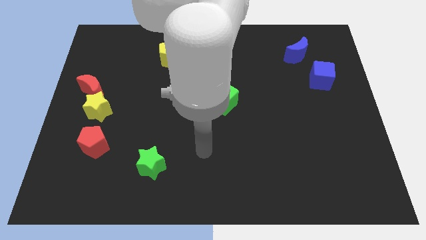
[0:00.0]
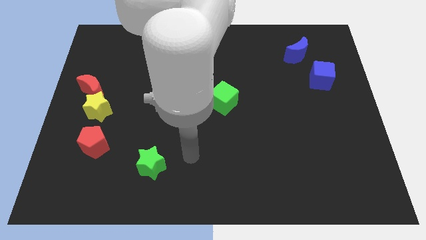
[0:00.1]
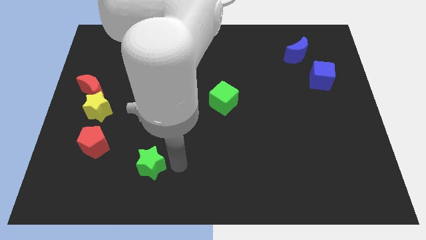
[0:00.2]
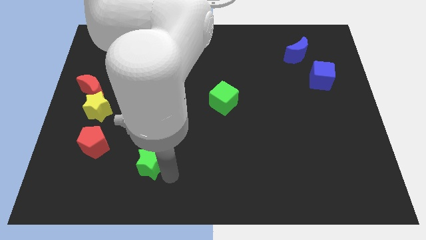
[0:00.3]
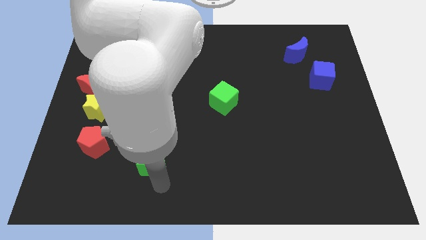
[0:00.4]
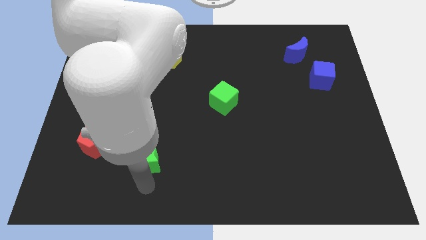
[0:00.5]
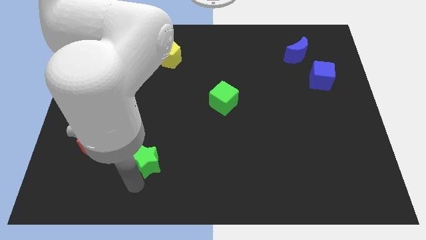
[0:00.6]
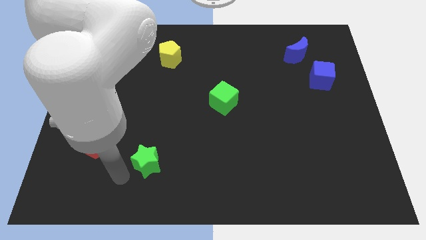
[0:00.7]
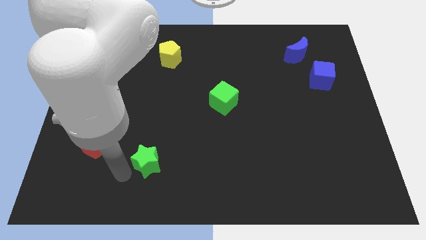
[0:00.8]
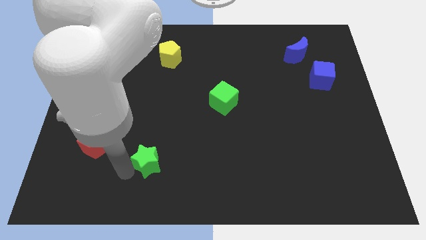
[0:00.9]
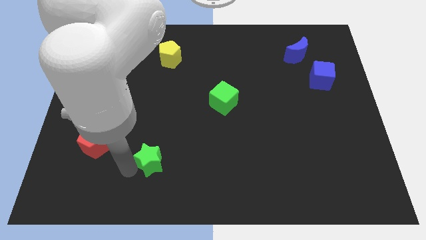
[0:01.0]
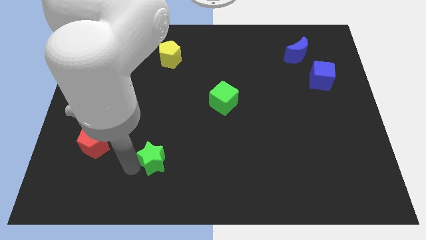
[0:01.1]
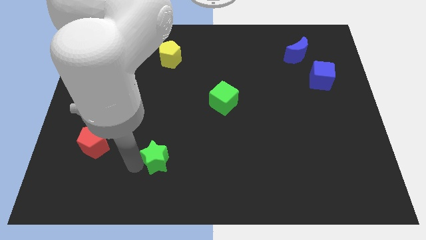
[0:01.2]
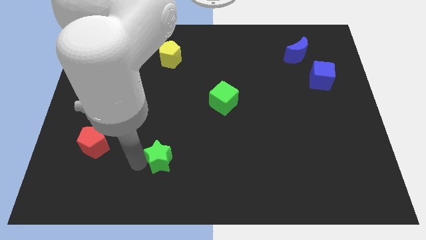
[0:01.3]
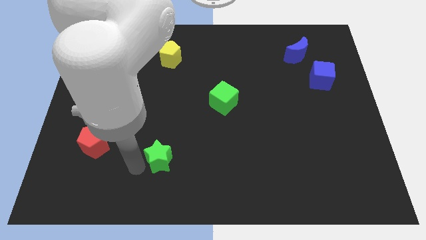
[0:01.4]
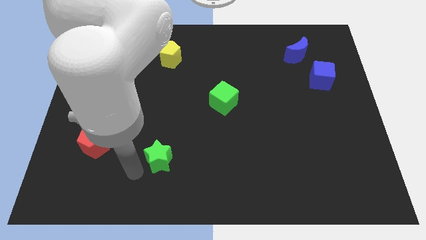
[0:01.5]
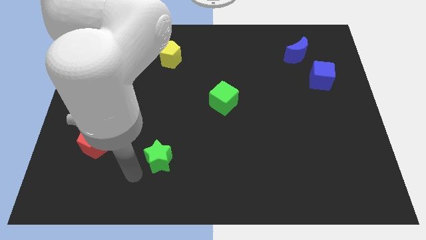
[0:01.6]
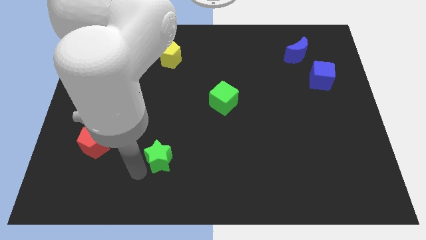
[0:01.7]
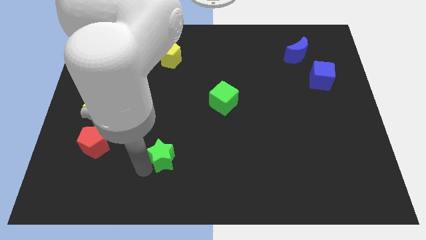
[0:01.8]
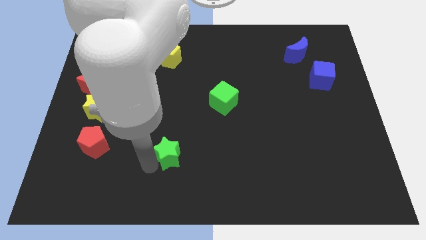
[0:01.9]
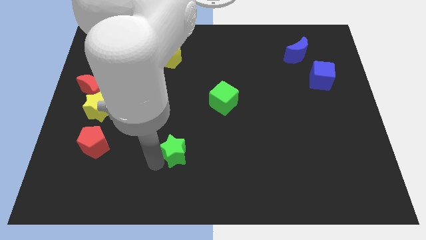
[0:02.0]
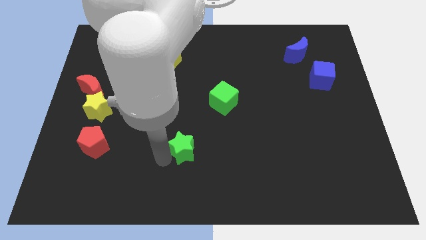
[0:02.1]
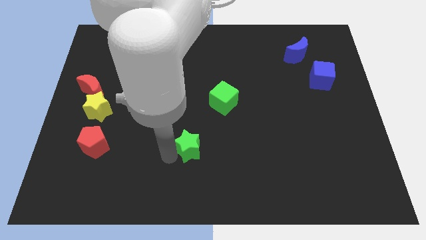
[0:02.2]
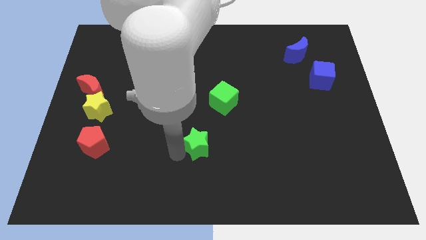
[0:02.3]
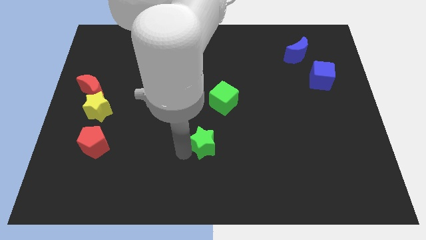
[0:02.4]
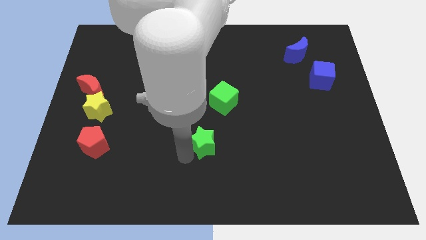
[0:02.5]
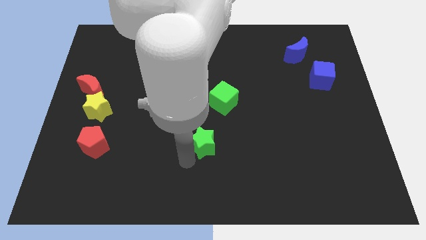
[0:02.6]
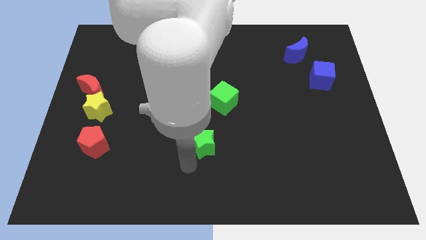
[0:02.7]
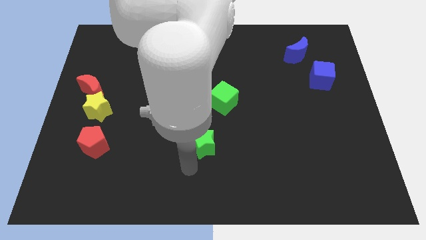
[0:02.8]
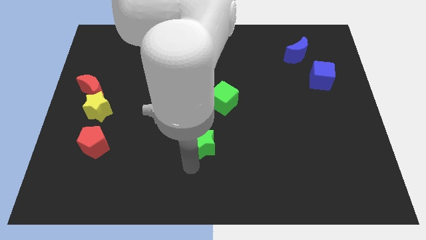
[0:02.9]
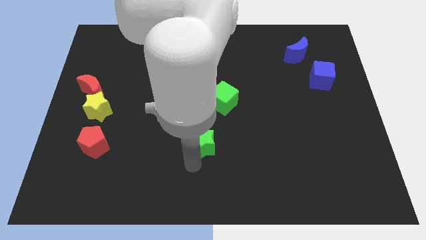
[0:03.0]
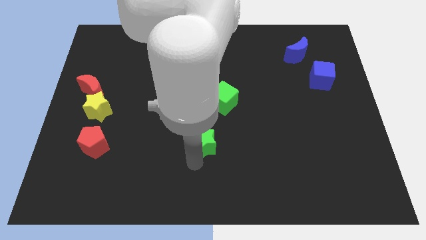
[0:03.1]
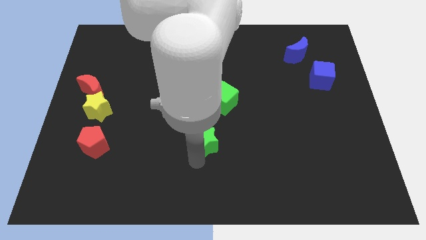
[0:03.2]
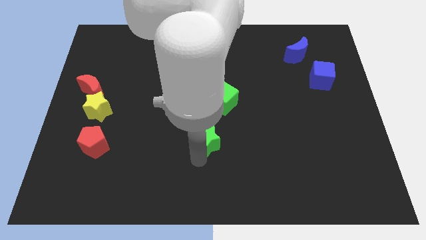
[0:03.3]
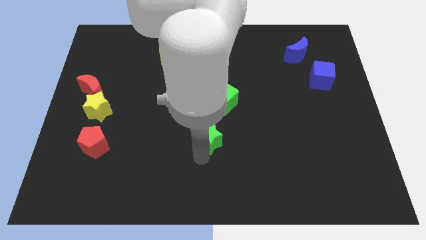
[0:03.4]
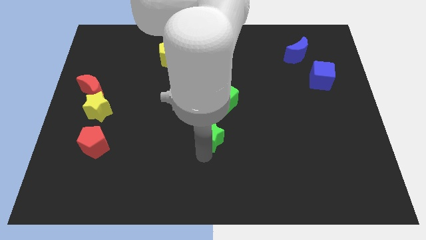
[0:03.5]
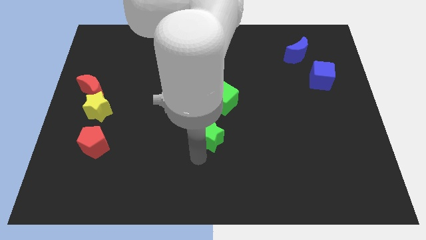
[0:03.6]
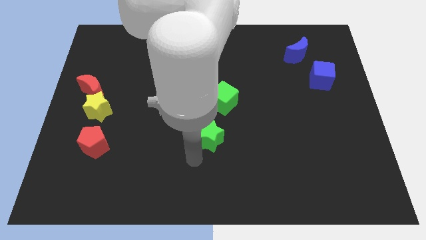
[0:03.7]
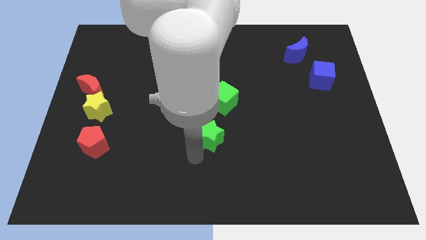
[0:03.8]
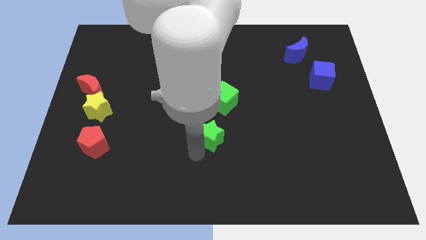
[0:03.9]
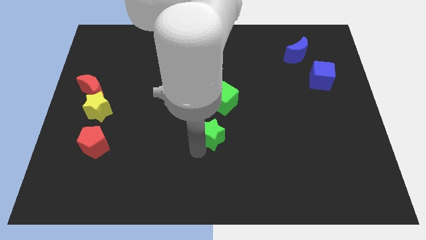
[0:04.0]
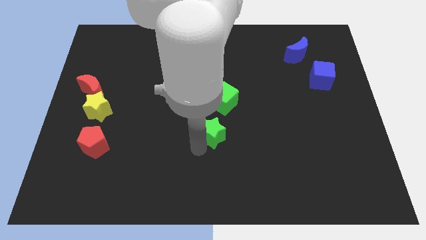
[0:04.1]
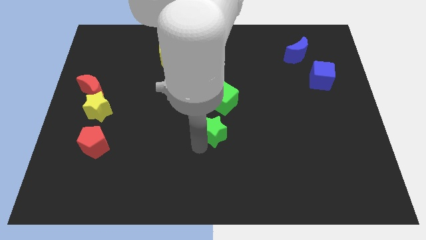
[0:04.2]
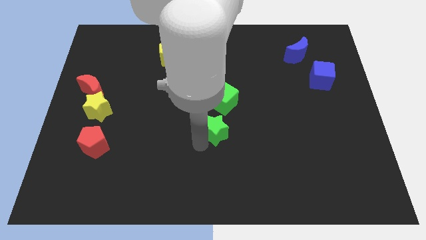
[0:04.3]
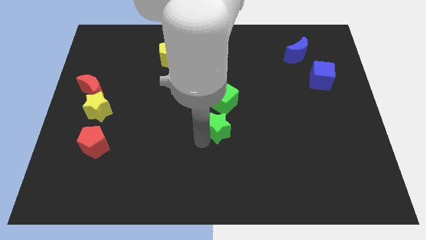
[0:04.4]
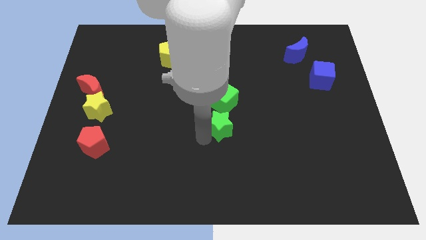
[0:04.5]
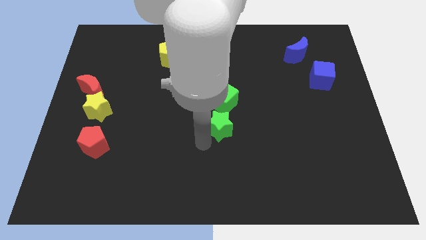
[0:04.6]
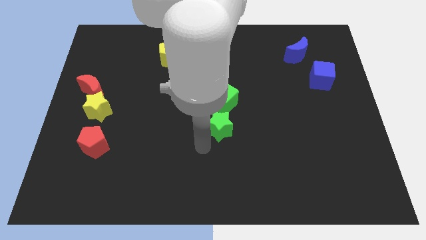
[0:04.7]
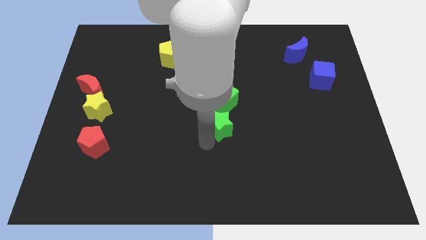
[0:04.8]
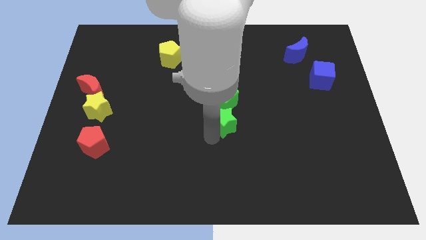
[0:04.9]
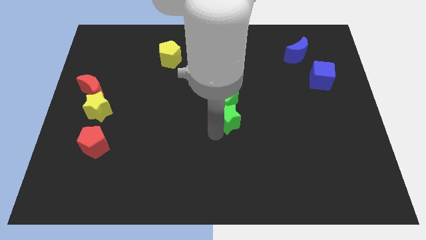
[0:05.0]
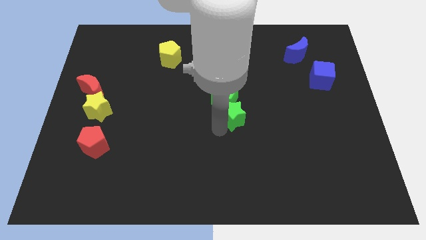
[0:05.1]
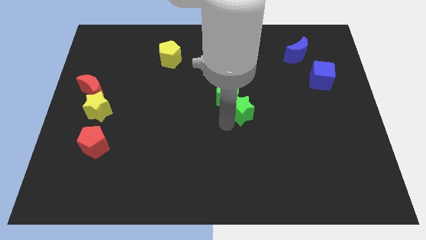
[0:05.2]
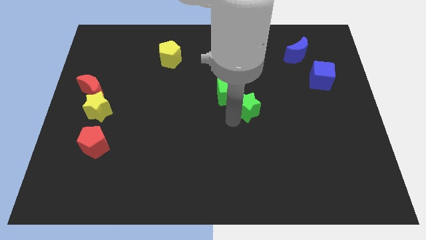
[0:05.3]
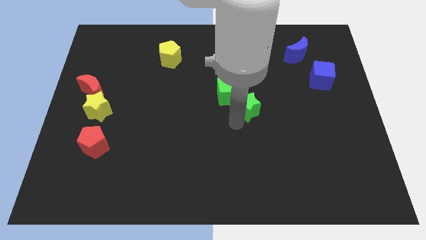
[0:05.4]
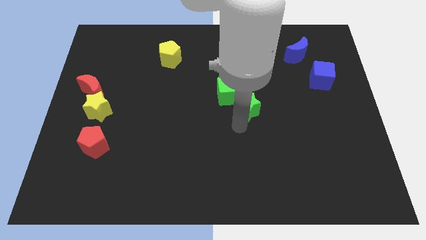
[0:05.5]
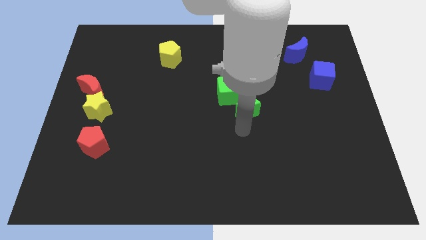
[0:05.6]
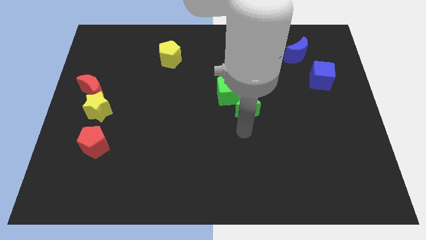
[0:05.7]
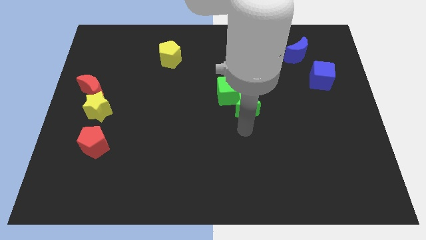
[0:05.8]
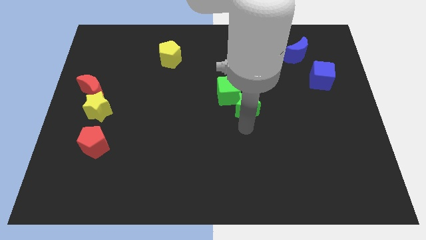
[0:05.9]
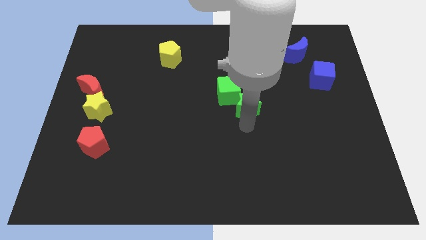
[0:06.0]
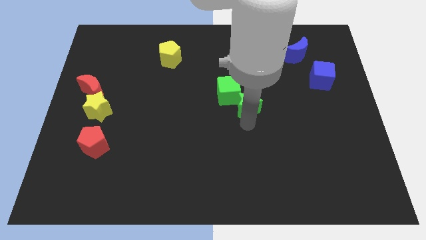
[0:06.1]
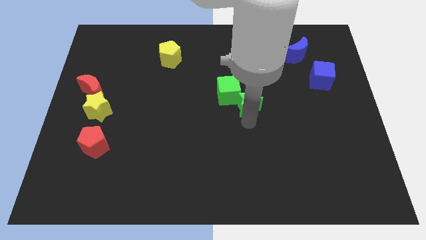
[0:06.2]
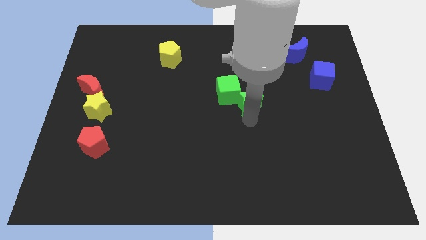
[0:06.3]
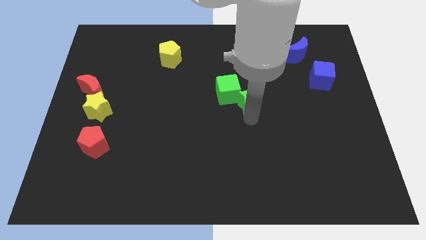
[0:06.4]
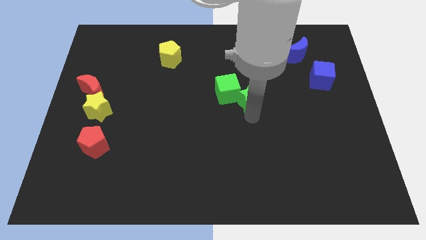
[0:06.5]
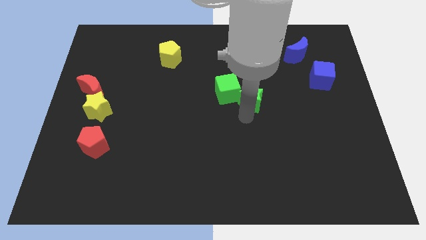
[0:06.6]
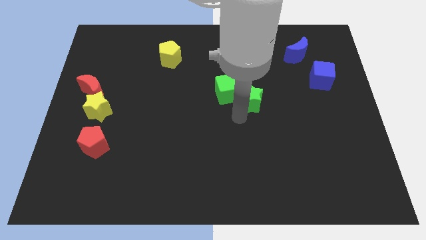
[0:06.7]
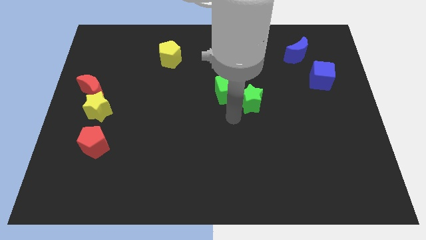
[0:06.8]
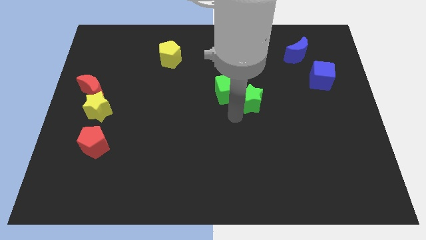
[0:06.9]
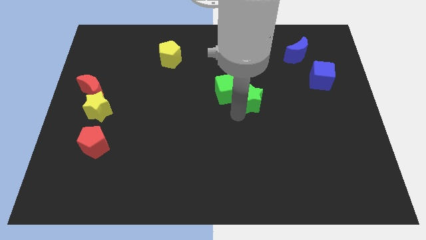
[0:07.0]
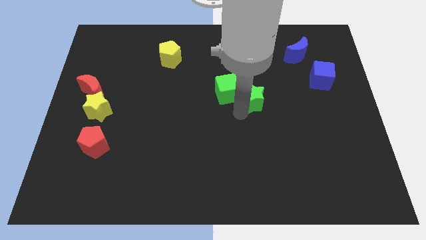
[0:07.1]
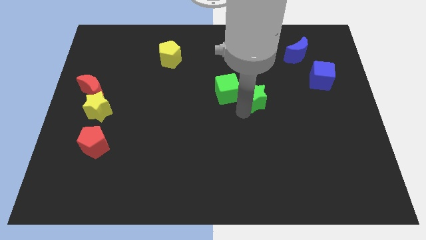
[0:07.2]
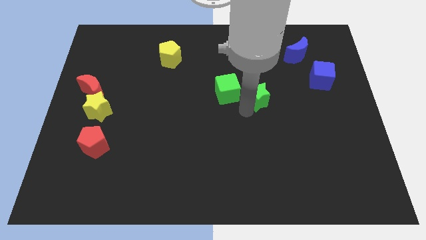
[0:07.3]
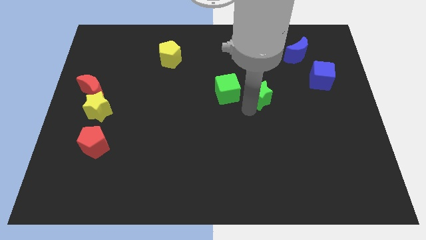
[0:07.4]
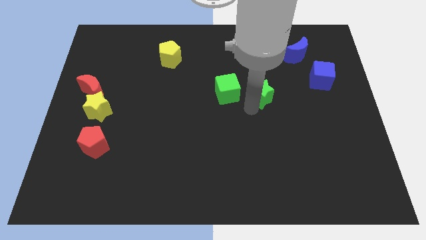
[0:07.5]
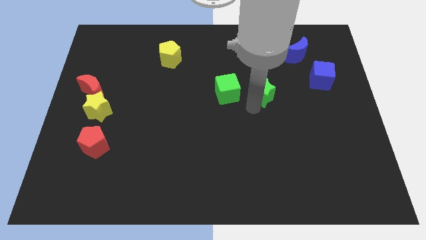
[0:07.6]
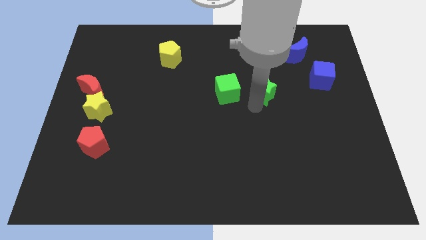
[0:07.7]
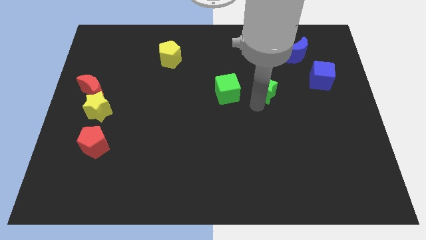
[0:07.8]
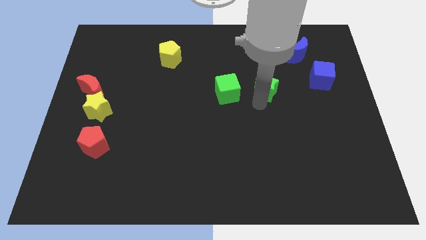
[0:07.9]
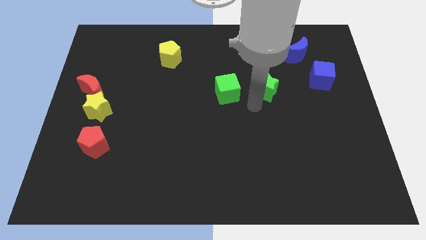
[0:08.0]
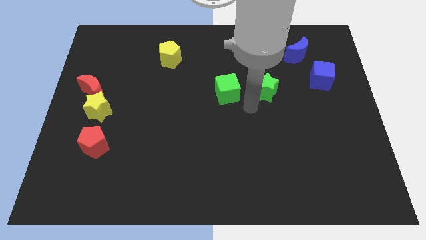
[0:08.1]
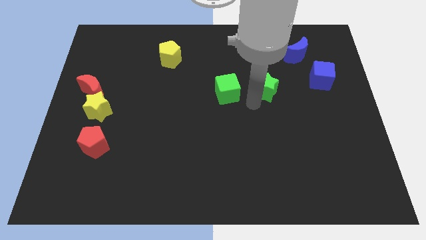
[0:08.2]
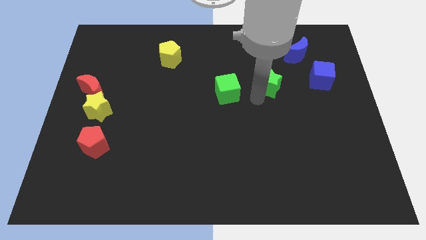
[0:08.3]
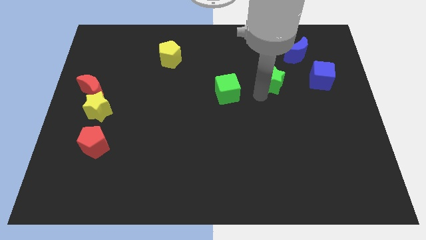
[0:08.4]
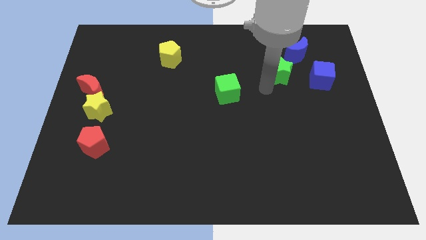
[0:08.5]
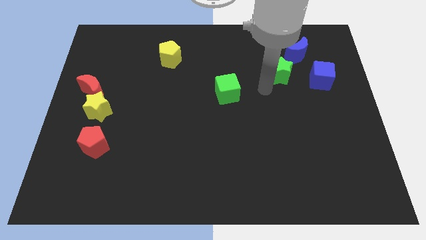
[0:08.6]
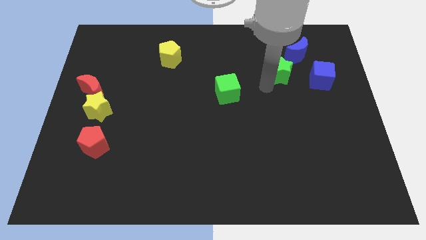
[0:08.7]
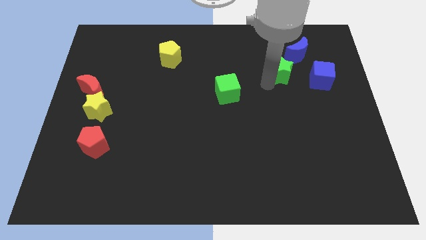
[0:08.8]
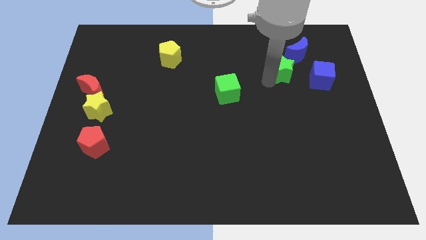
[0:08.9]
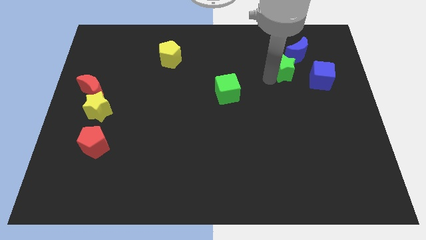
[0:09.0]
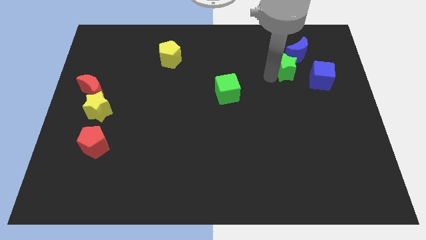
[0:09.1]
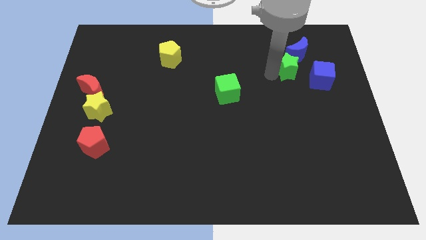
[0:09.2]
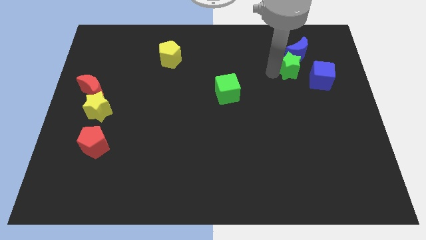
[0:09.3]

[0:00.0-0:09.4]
put the green star towards the blue moon
